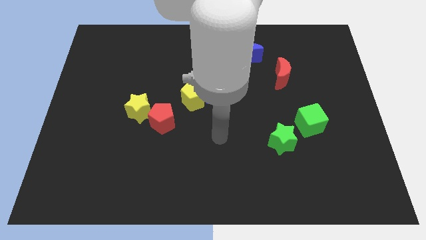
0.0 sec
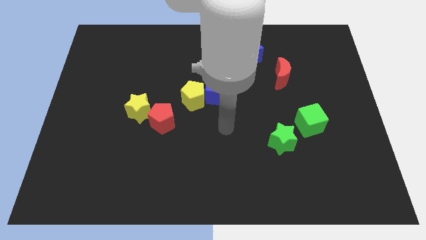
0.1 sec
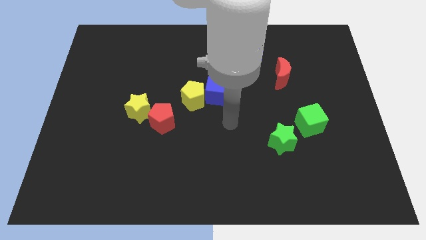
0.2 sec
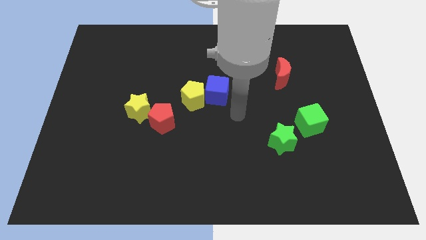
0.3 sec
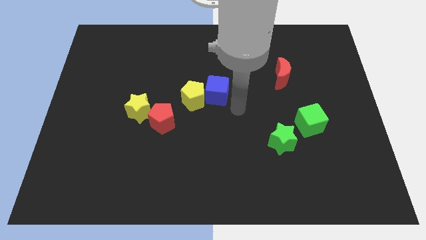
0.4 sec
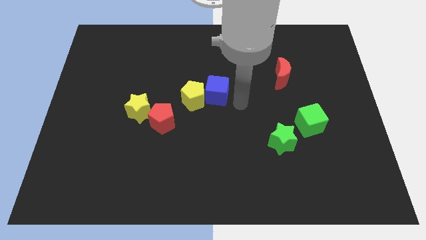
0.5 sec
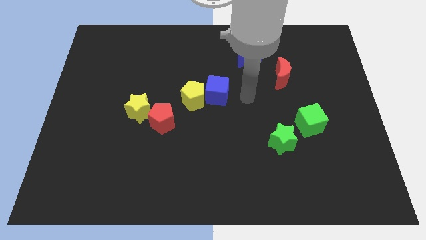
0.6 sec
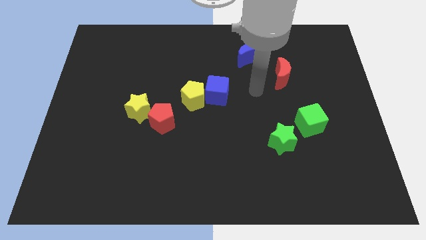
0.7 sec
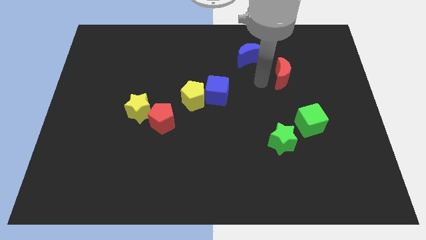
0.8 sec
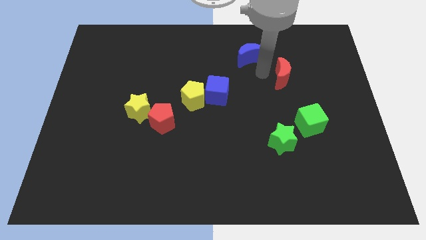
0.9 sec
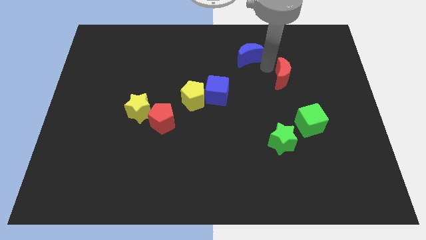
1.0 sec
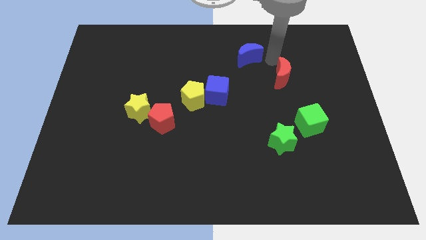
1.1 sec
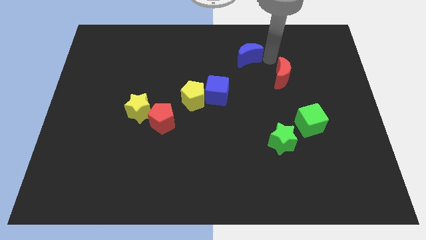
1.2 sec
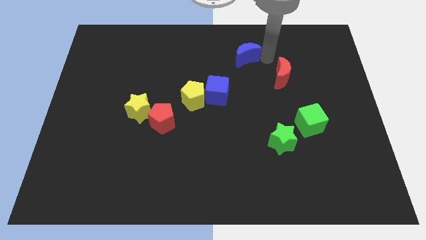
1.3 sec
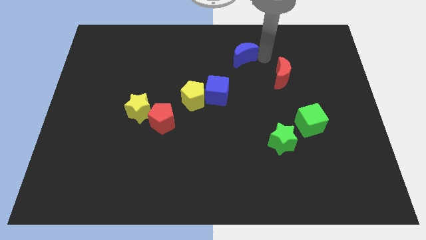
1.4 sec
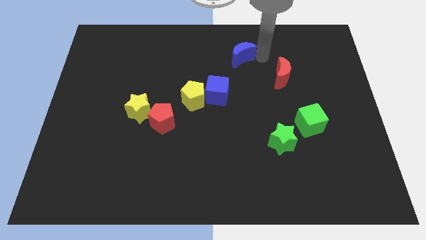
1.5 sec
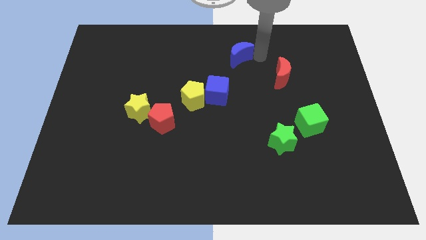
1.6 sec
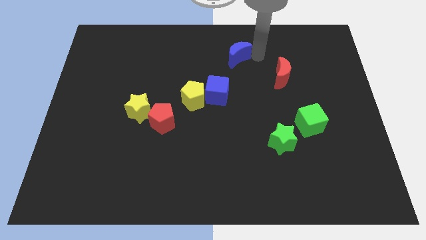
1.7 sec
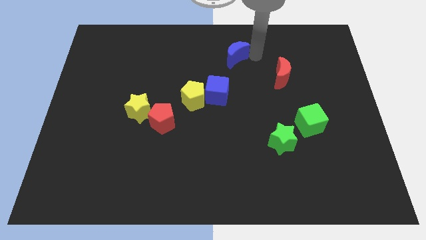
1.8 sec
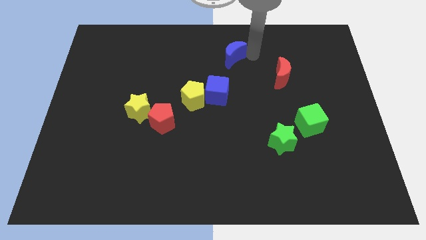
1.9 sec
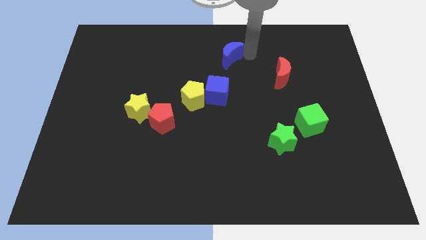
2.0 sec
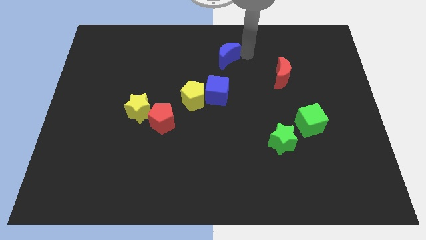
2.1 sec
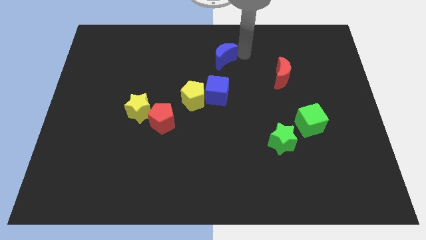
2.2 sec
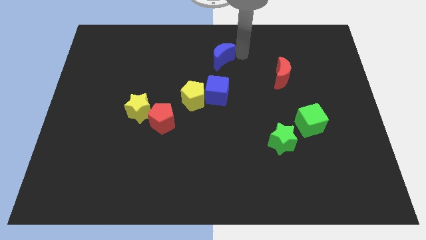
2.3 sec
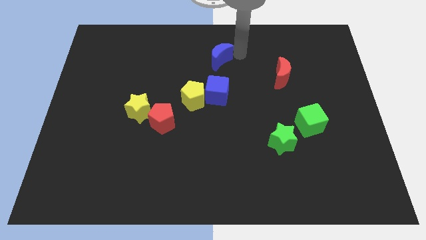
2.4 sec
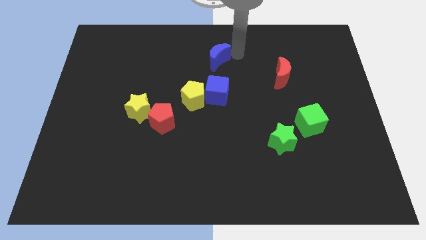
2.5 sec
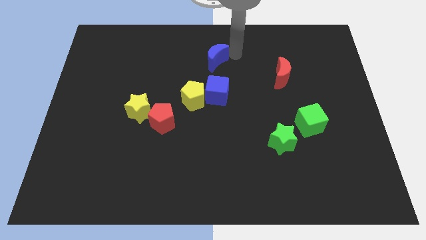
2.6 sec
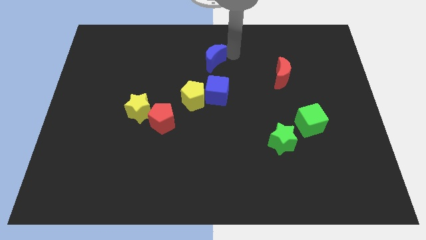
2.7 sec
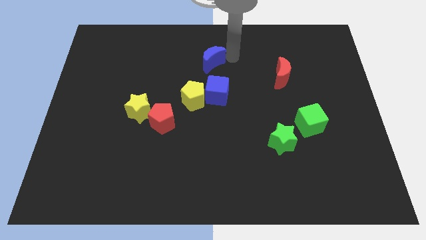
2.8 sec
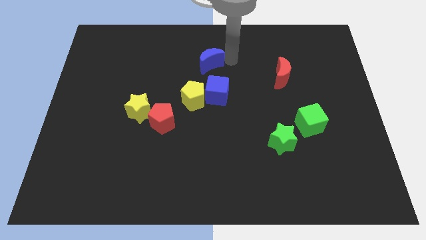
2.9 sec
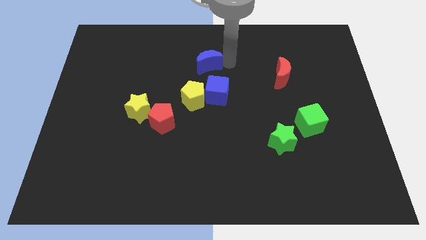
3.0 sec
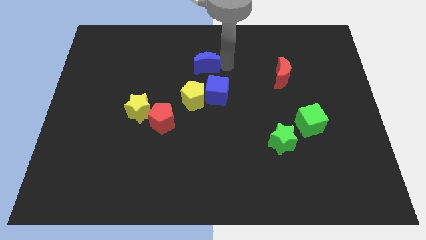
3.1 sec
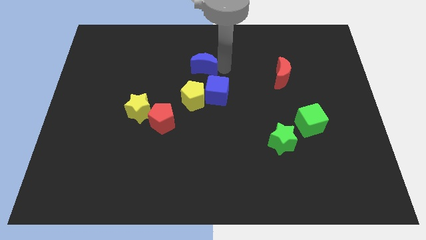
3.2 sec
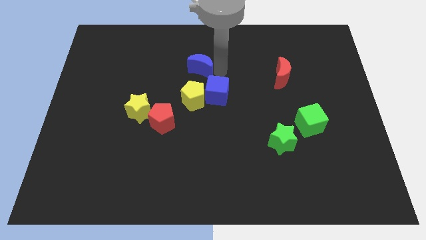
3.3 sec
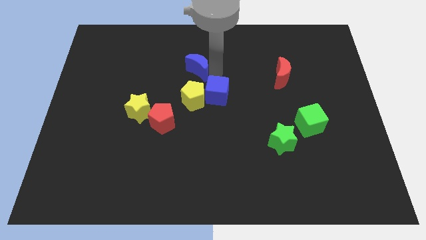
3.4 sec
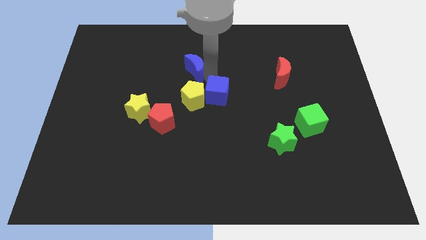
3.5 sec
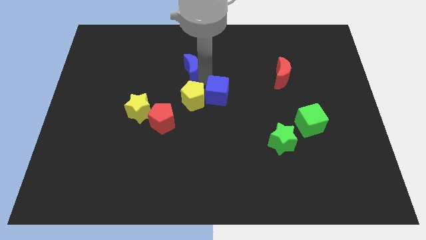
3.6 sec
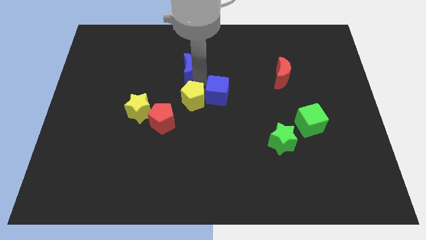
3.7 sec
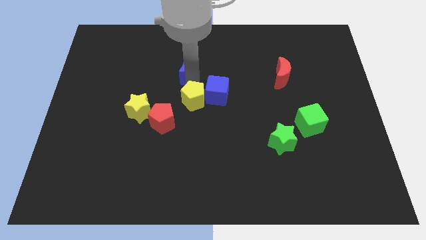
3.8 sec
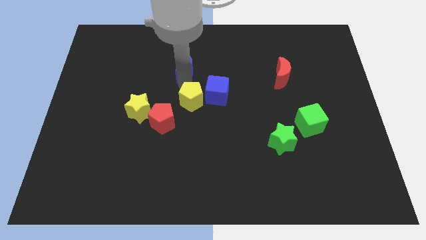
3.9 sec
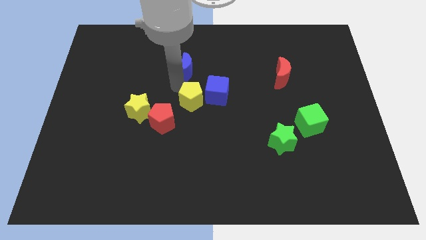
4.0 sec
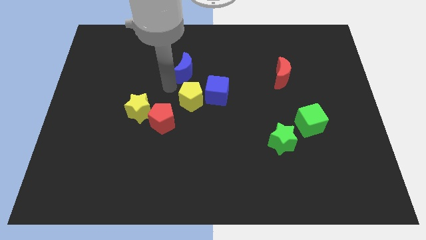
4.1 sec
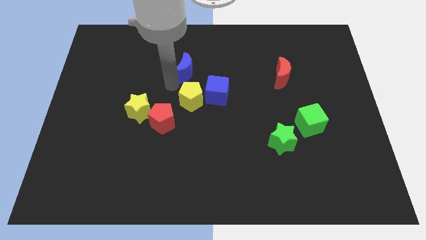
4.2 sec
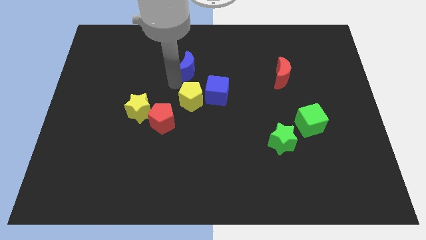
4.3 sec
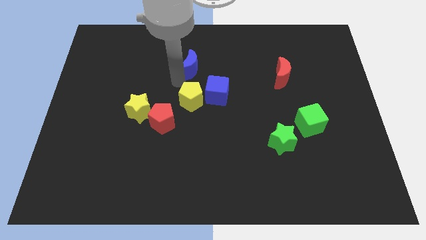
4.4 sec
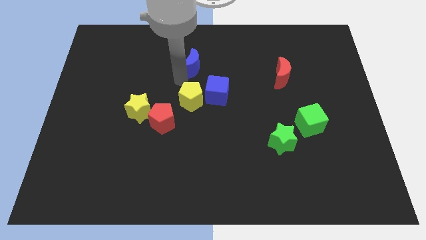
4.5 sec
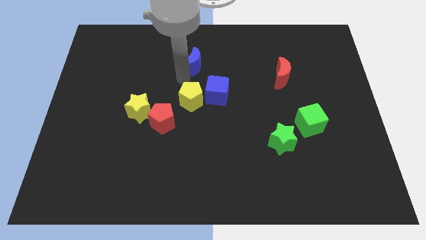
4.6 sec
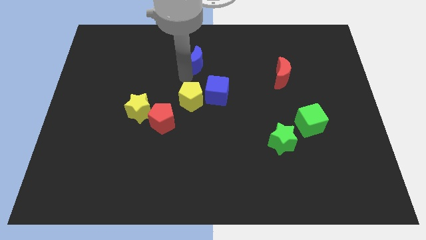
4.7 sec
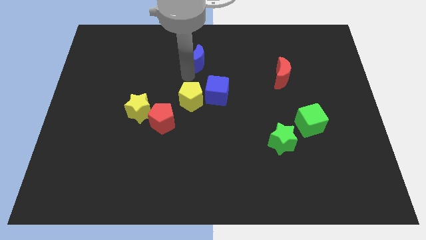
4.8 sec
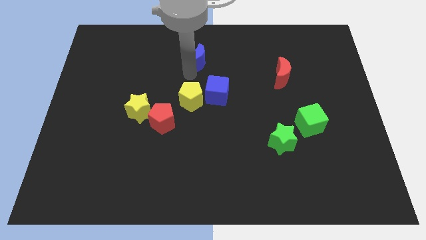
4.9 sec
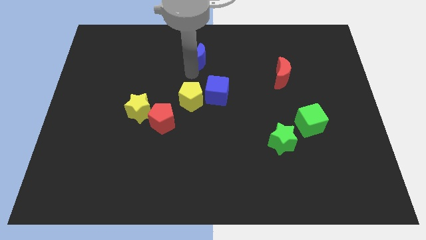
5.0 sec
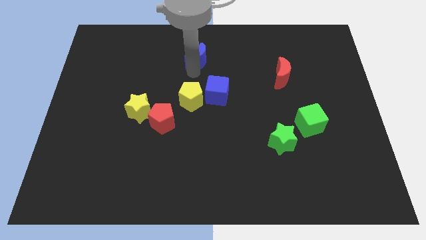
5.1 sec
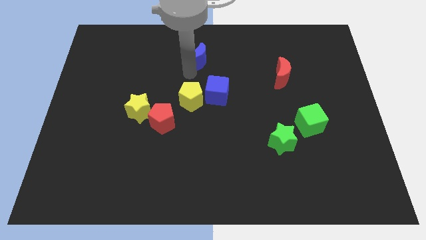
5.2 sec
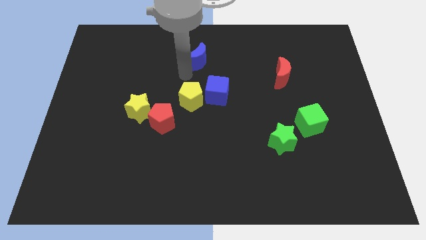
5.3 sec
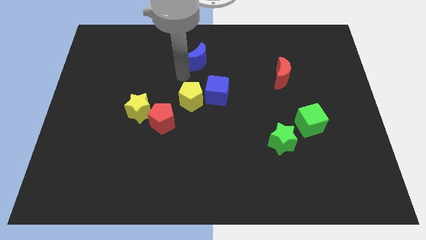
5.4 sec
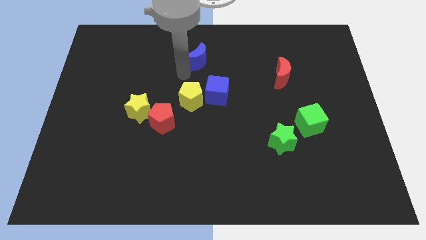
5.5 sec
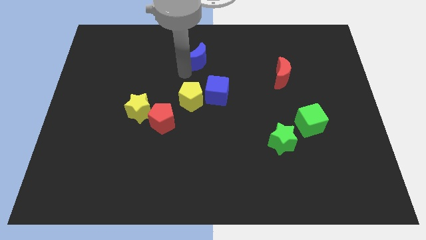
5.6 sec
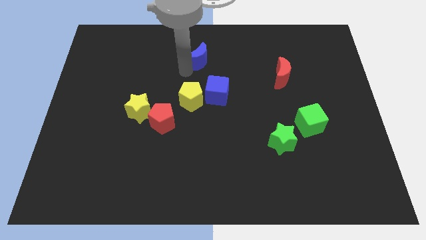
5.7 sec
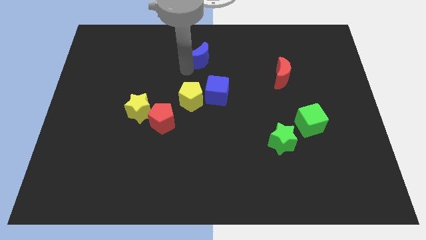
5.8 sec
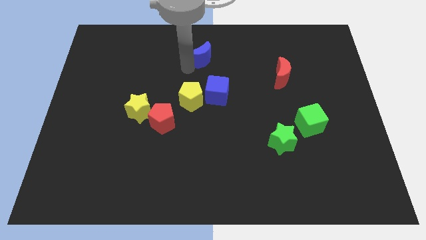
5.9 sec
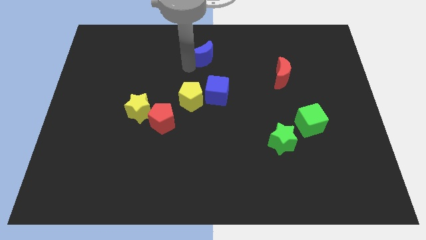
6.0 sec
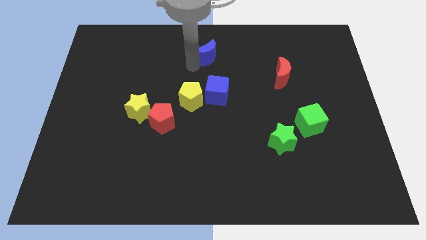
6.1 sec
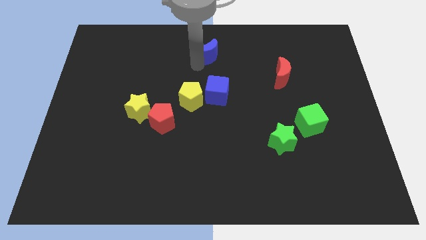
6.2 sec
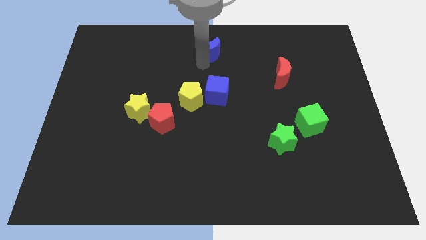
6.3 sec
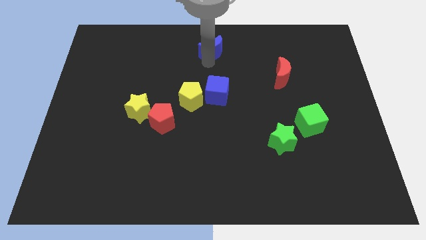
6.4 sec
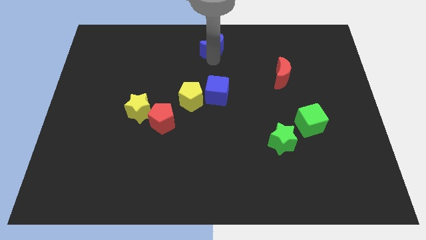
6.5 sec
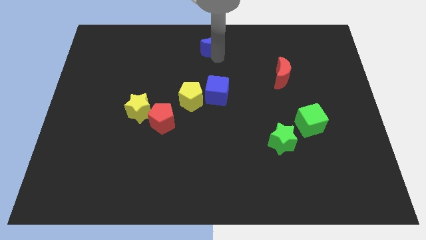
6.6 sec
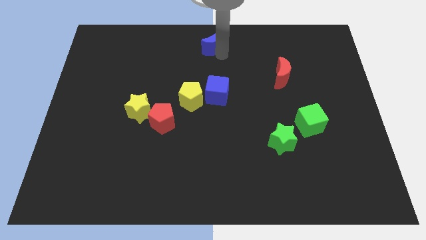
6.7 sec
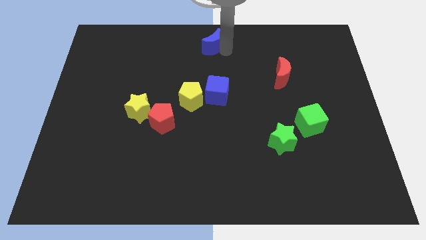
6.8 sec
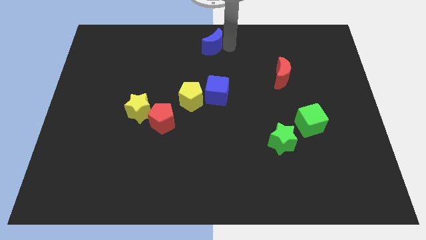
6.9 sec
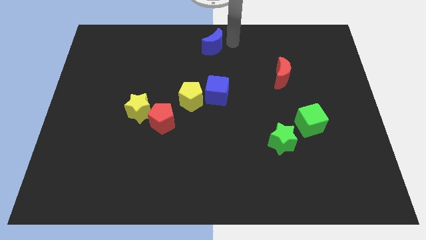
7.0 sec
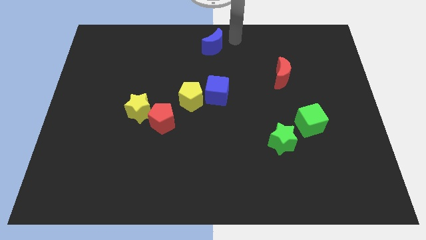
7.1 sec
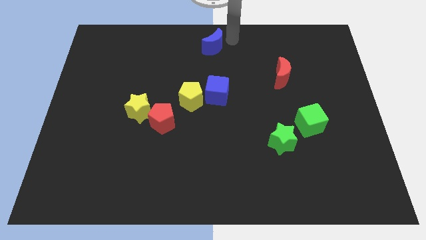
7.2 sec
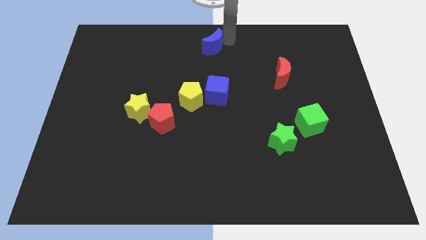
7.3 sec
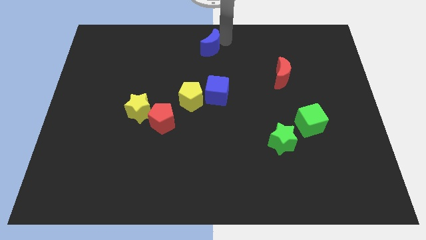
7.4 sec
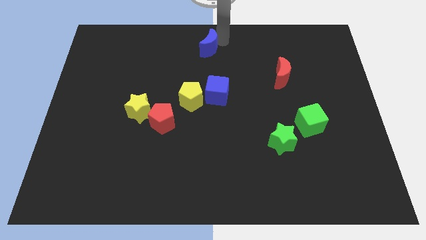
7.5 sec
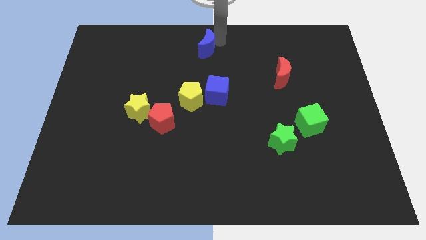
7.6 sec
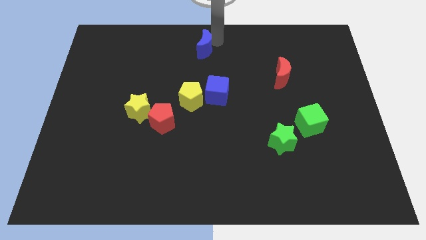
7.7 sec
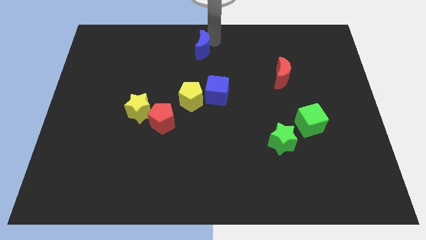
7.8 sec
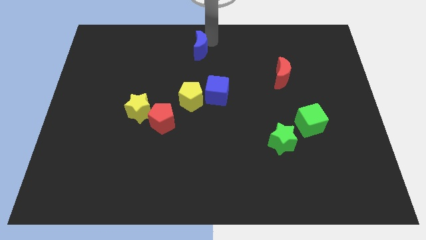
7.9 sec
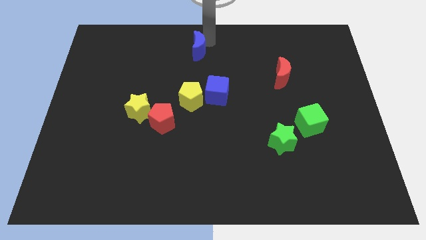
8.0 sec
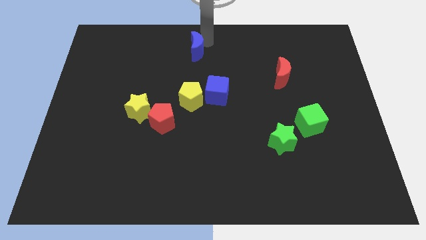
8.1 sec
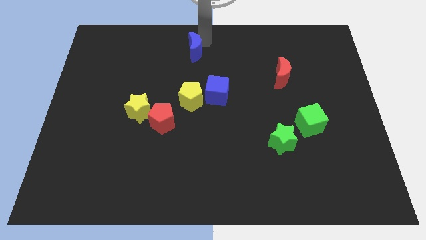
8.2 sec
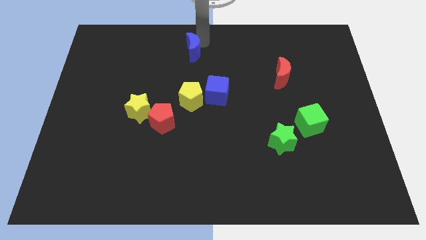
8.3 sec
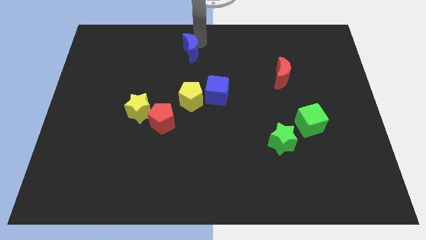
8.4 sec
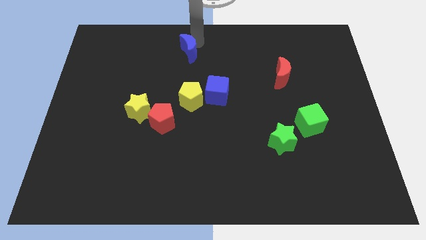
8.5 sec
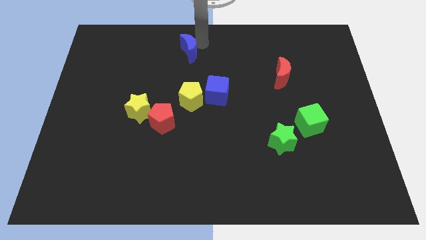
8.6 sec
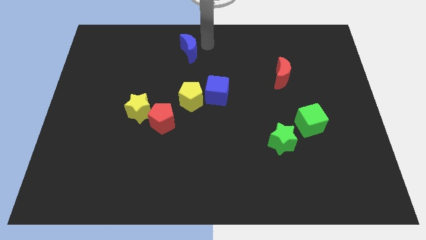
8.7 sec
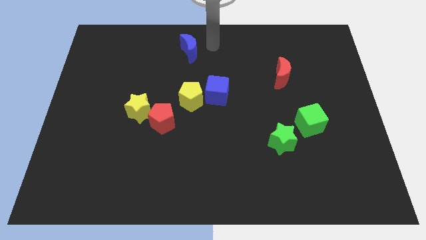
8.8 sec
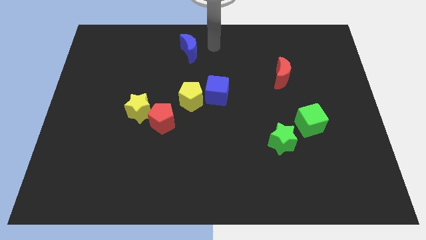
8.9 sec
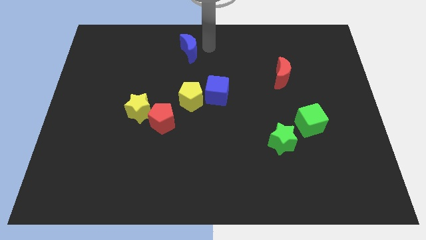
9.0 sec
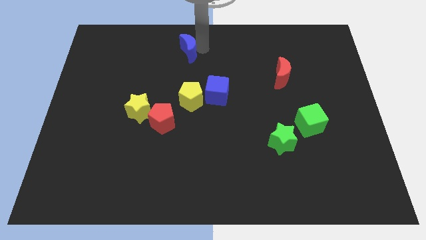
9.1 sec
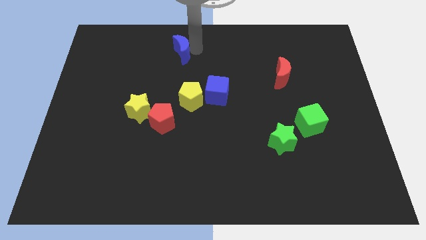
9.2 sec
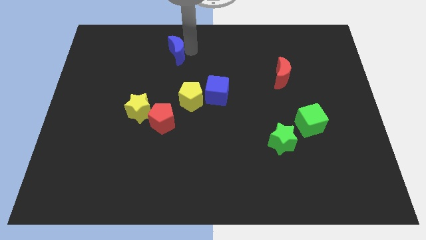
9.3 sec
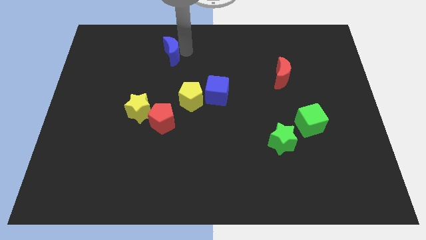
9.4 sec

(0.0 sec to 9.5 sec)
move the blue moon left
